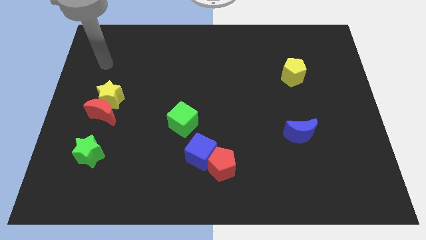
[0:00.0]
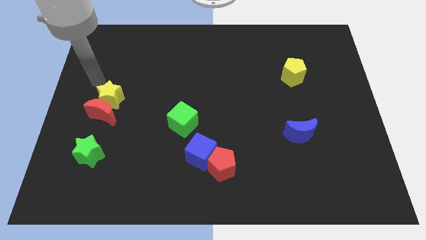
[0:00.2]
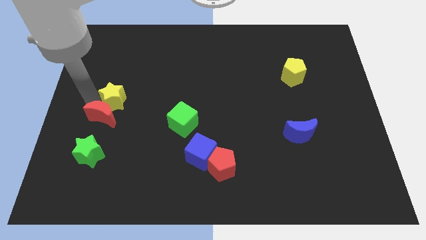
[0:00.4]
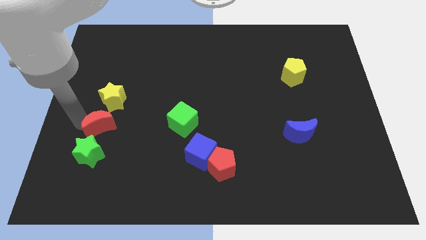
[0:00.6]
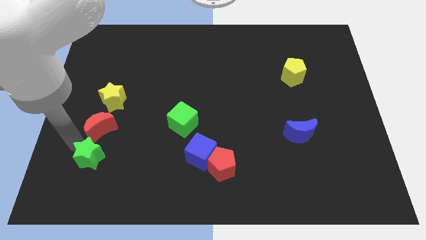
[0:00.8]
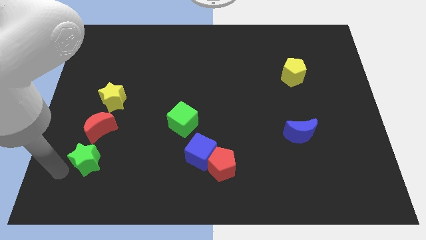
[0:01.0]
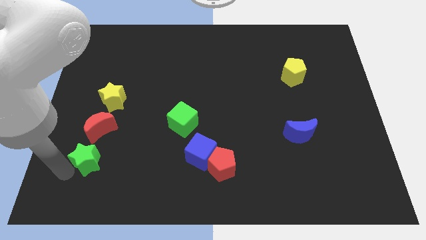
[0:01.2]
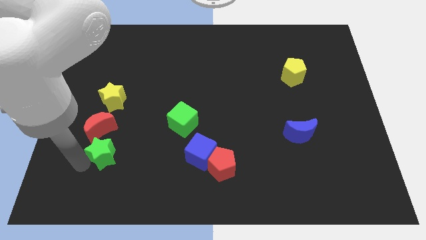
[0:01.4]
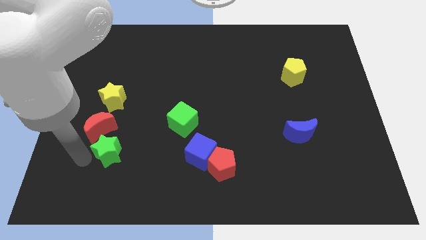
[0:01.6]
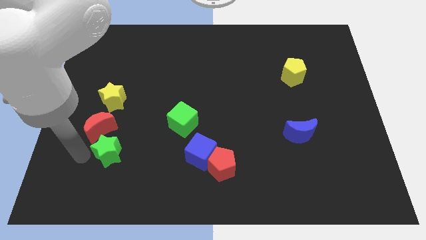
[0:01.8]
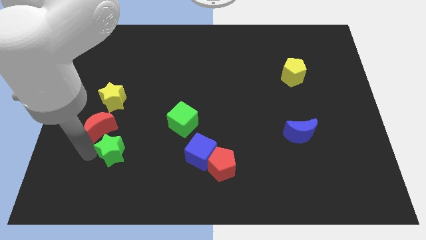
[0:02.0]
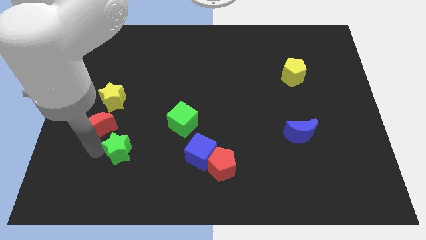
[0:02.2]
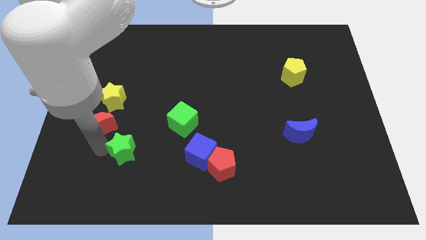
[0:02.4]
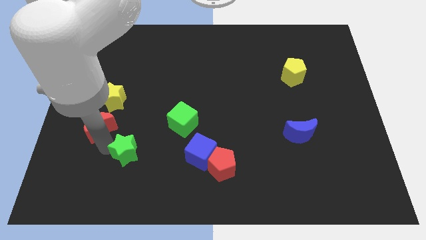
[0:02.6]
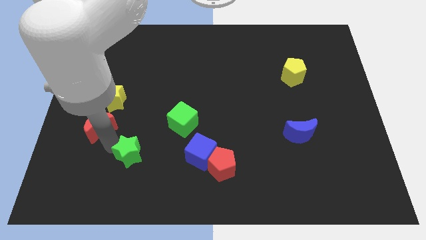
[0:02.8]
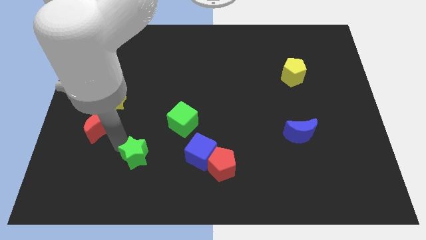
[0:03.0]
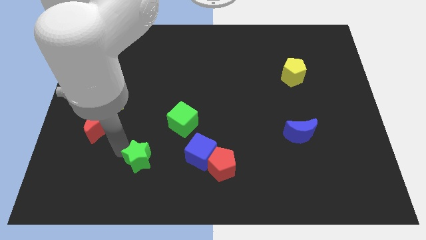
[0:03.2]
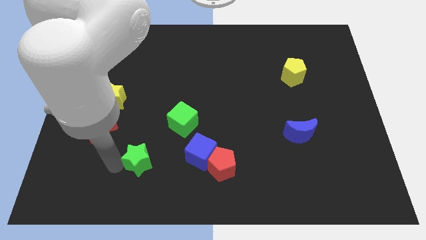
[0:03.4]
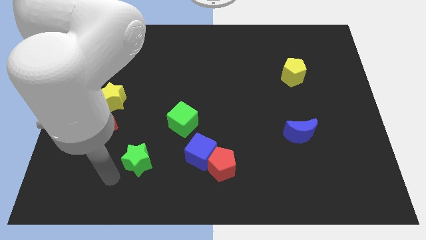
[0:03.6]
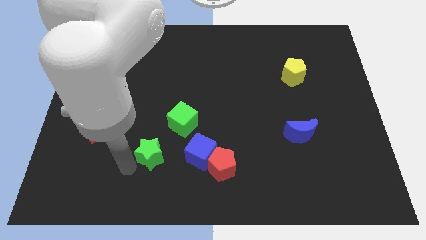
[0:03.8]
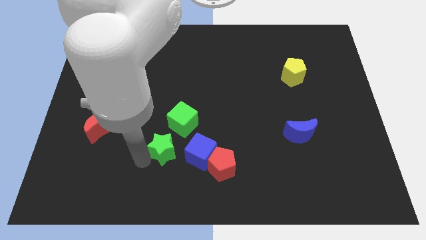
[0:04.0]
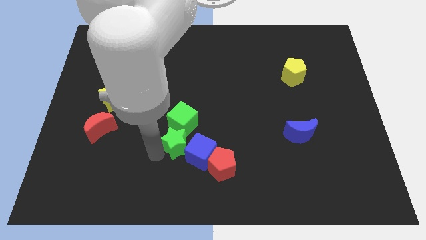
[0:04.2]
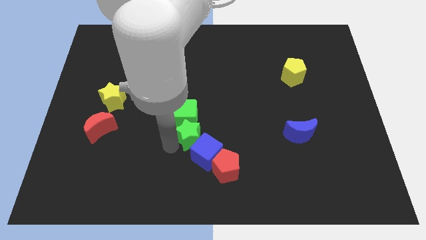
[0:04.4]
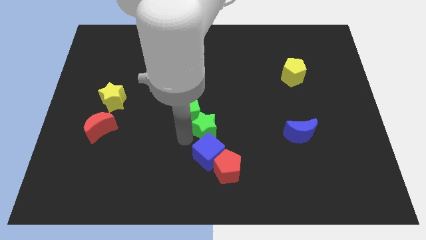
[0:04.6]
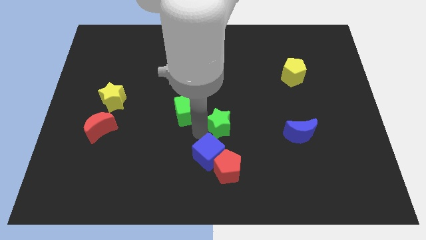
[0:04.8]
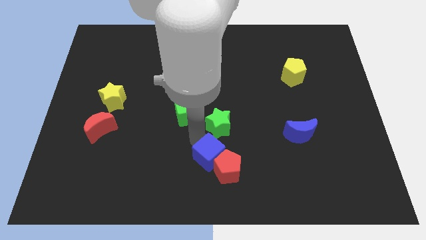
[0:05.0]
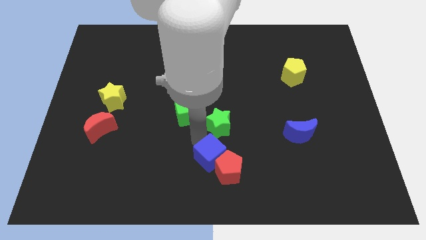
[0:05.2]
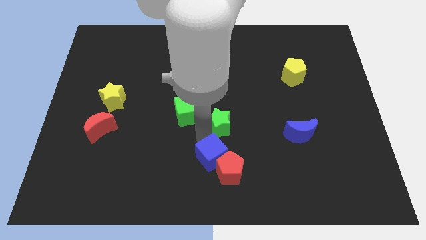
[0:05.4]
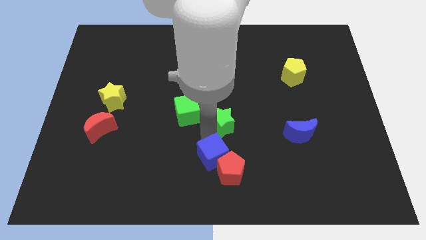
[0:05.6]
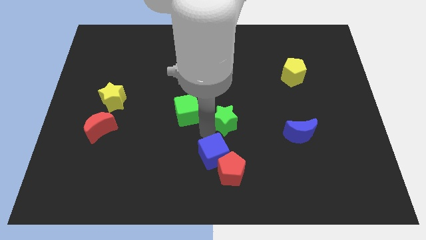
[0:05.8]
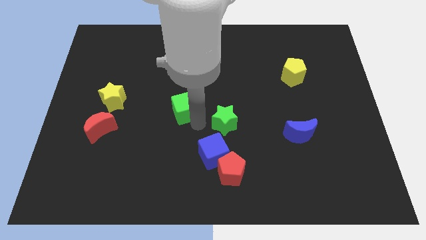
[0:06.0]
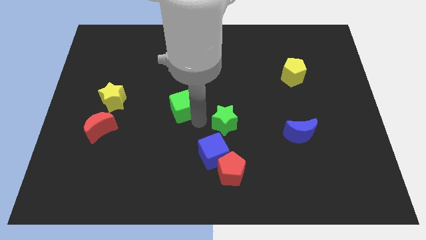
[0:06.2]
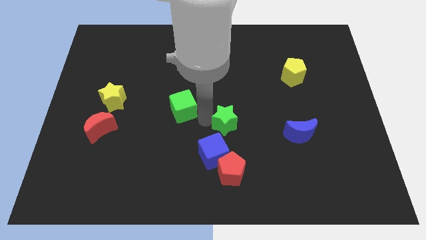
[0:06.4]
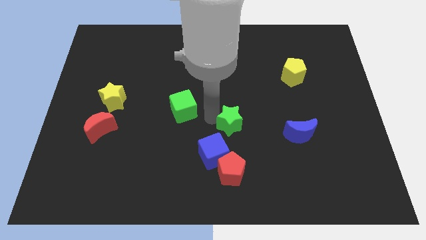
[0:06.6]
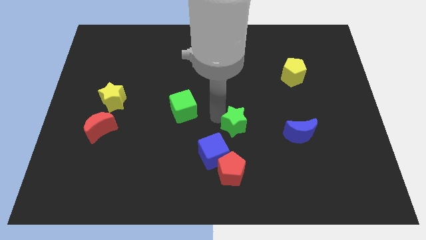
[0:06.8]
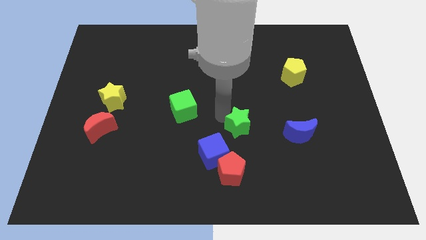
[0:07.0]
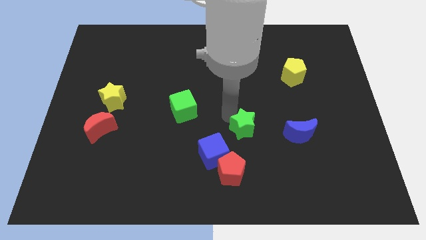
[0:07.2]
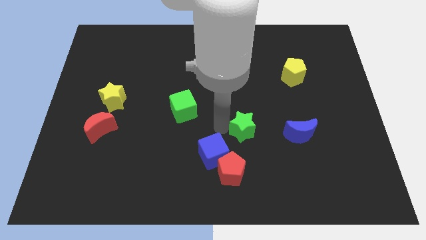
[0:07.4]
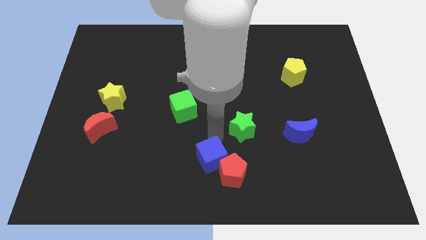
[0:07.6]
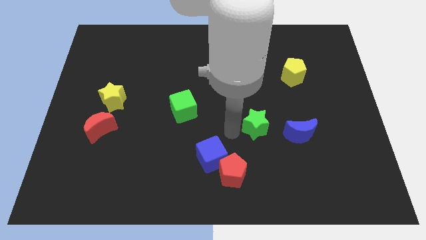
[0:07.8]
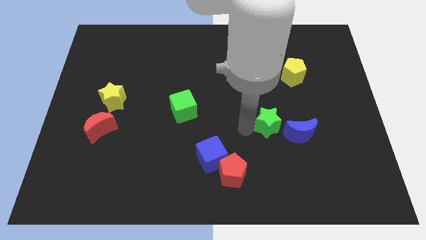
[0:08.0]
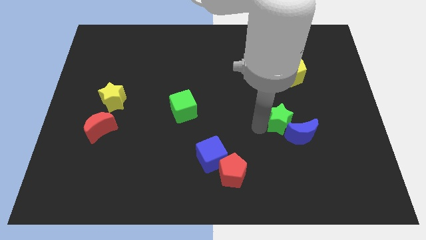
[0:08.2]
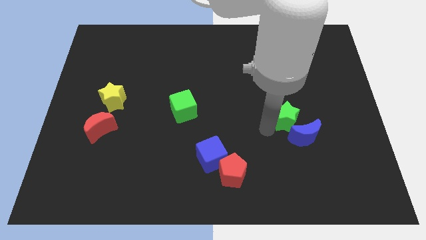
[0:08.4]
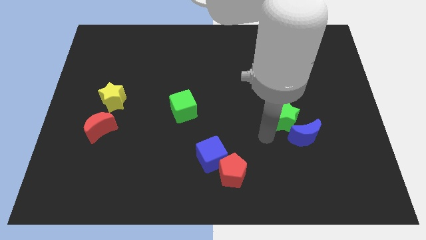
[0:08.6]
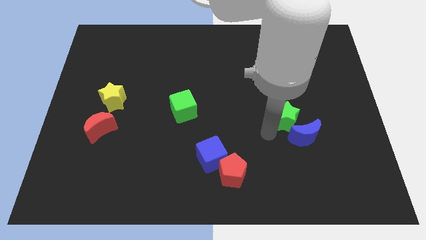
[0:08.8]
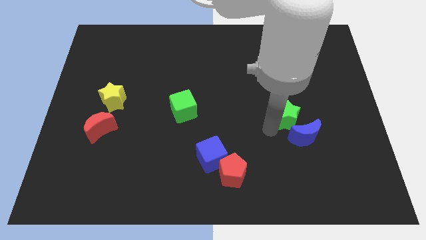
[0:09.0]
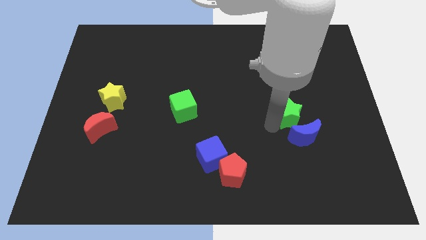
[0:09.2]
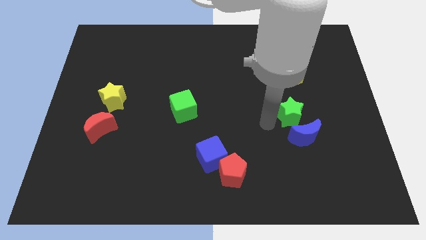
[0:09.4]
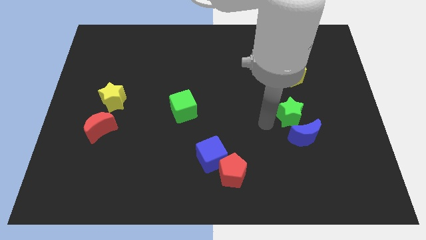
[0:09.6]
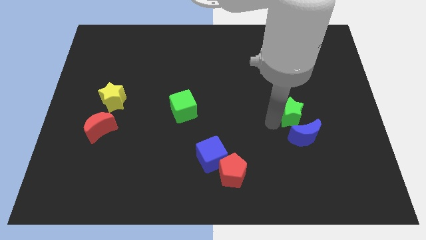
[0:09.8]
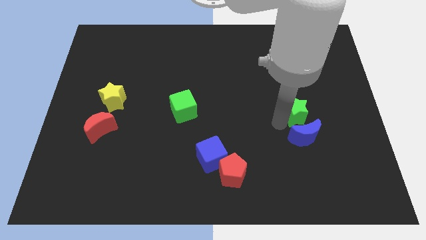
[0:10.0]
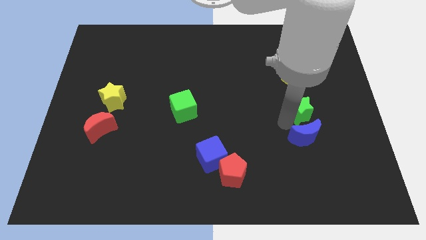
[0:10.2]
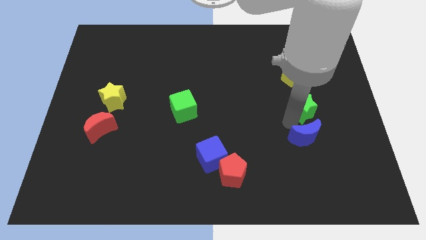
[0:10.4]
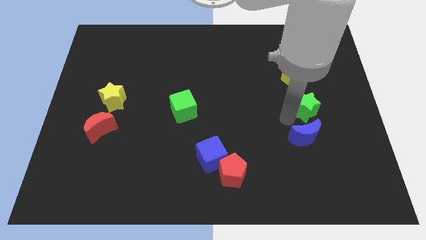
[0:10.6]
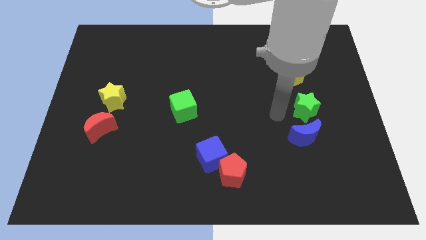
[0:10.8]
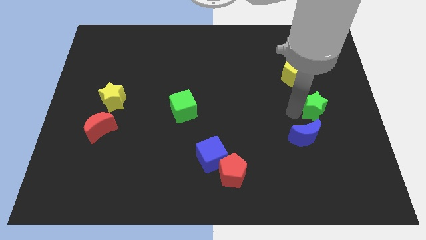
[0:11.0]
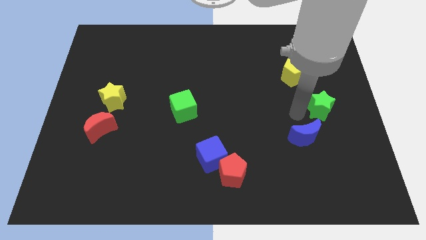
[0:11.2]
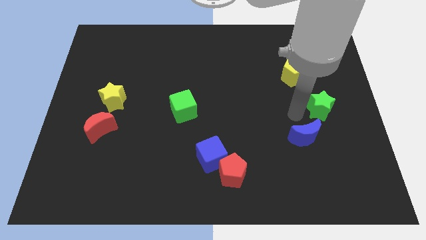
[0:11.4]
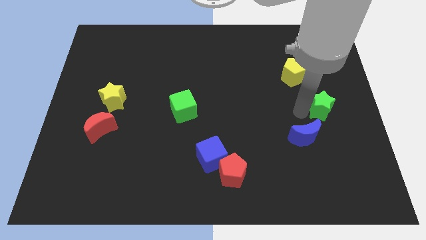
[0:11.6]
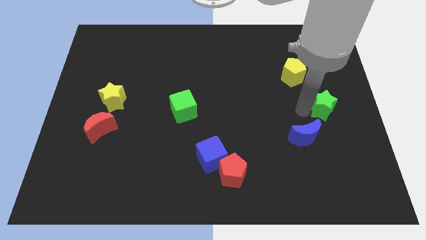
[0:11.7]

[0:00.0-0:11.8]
put the green star to the right side
